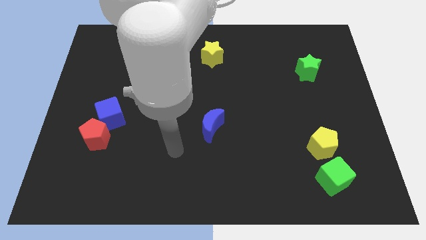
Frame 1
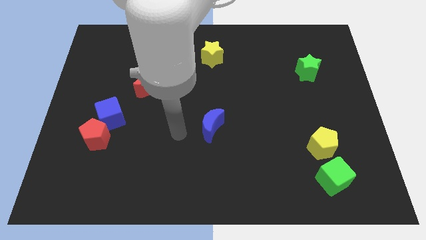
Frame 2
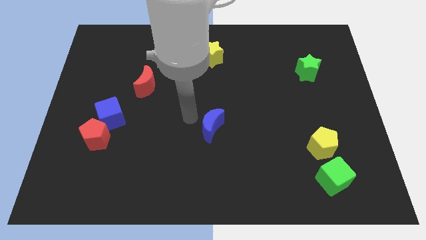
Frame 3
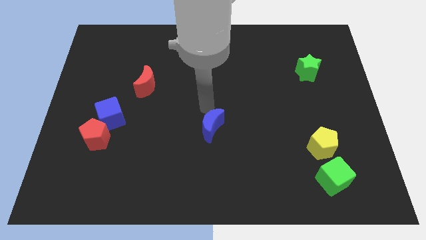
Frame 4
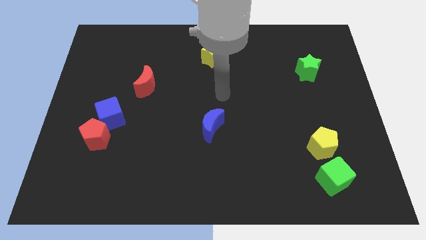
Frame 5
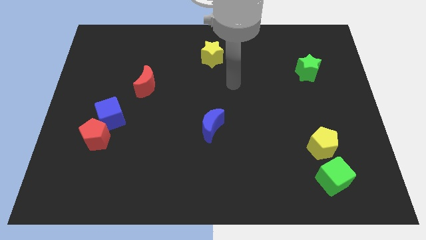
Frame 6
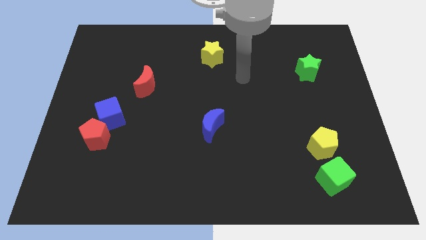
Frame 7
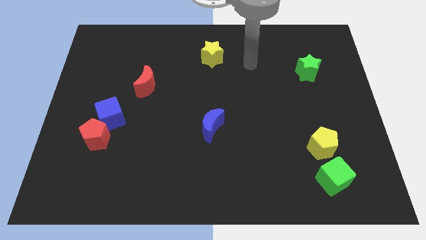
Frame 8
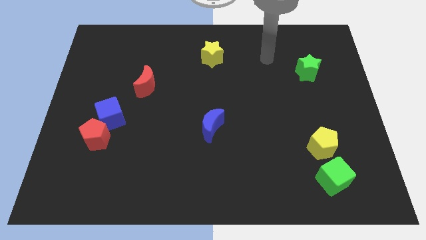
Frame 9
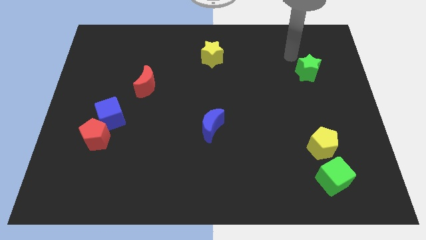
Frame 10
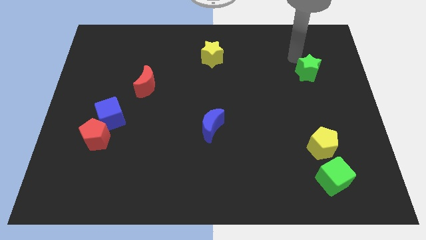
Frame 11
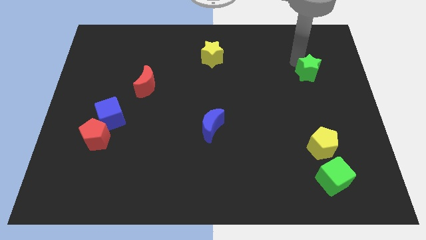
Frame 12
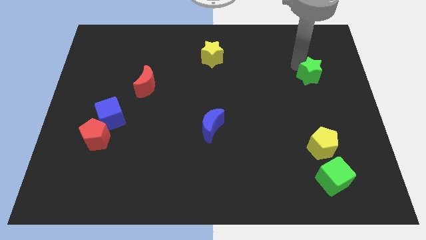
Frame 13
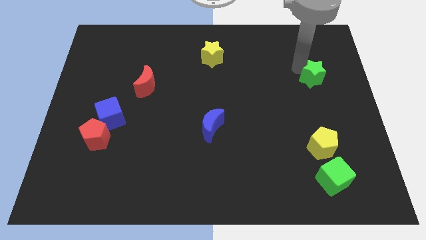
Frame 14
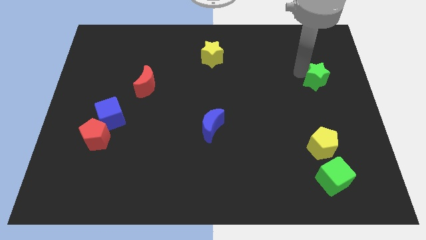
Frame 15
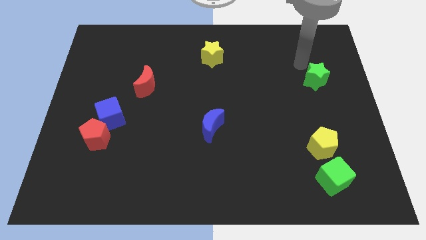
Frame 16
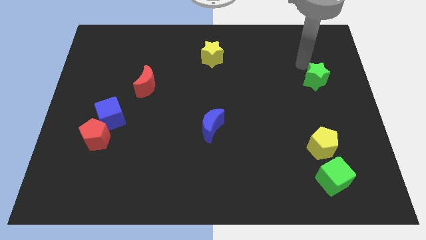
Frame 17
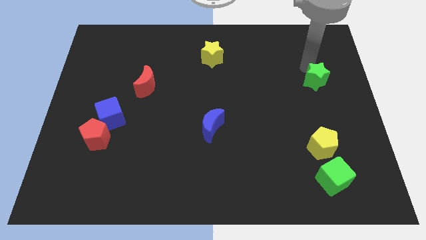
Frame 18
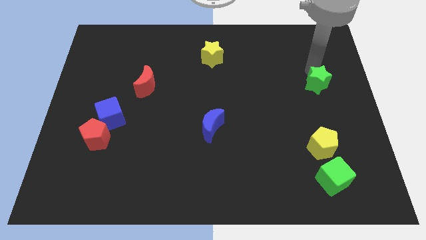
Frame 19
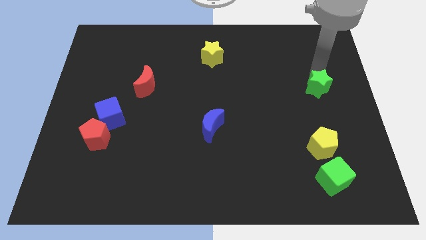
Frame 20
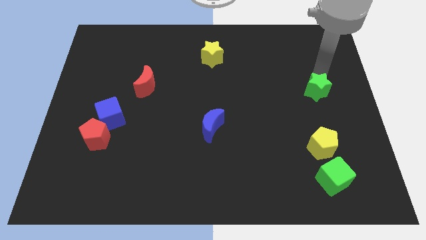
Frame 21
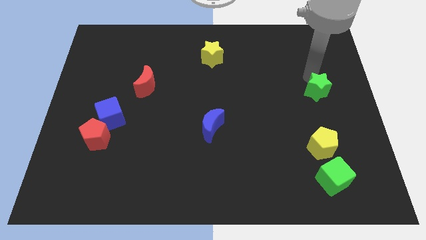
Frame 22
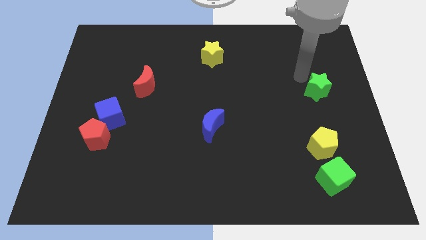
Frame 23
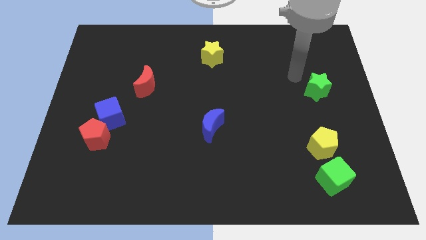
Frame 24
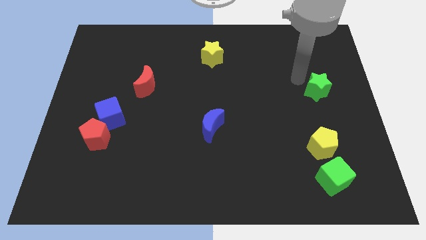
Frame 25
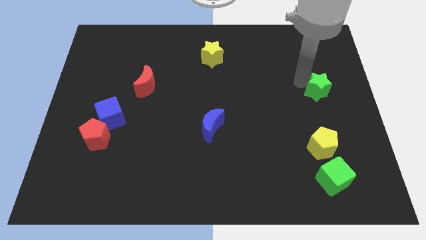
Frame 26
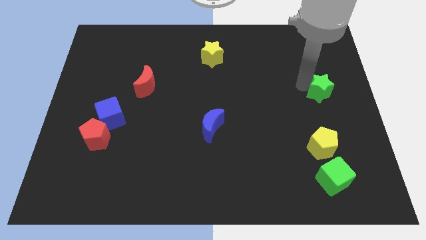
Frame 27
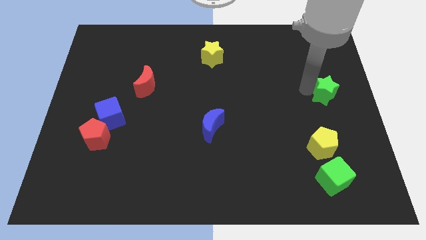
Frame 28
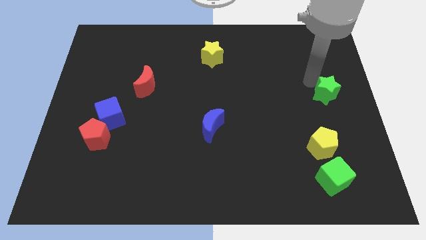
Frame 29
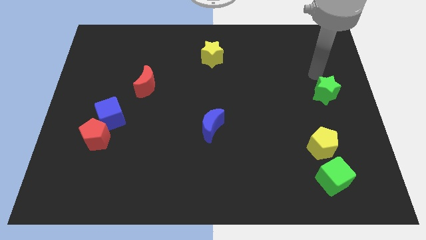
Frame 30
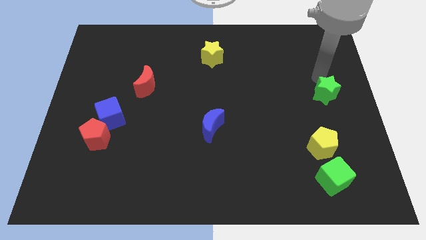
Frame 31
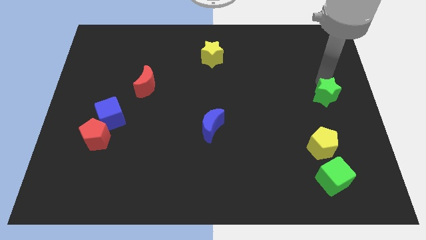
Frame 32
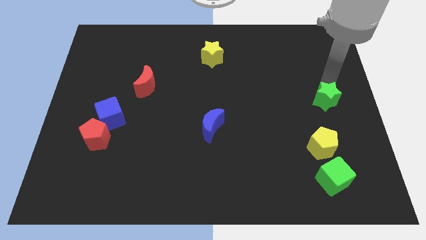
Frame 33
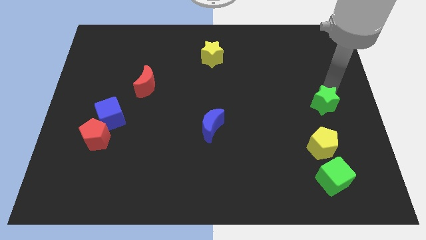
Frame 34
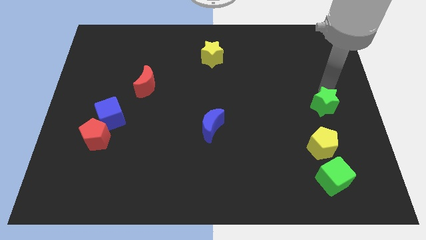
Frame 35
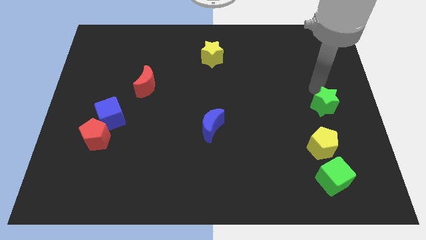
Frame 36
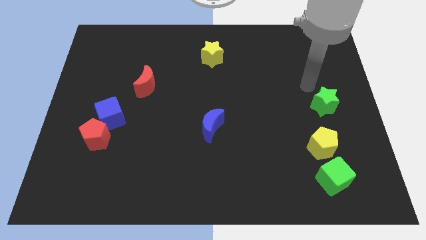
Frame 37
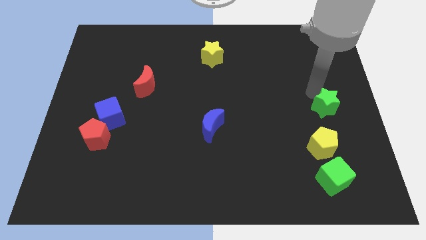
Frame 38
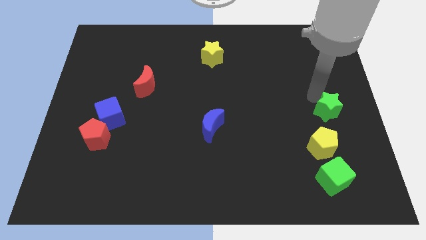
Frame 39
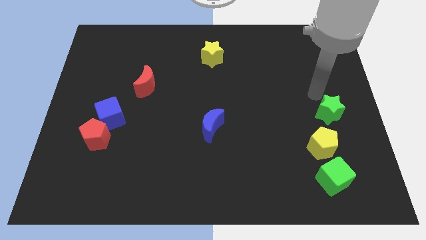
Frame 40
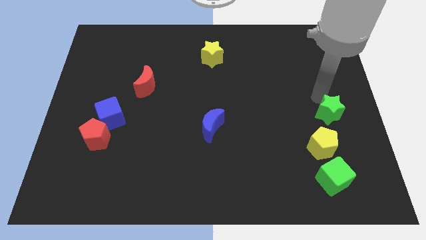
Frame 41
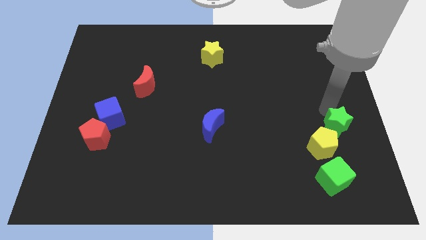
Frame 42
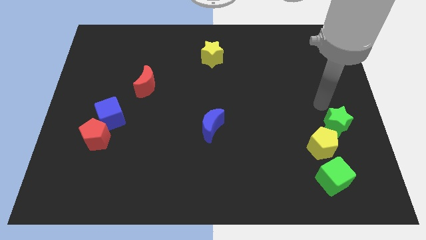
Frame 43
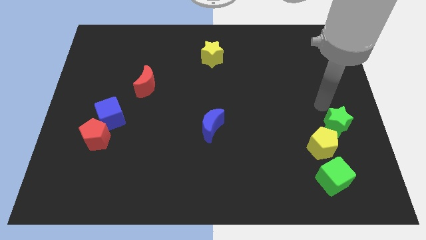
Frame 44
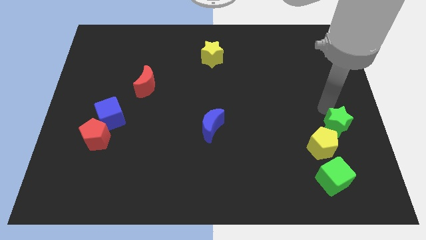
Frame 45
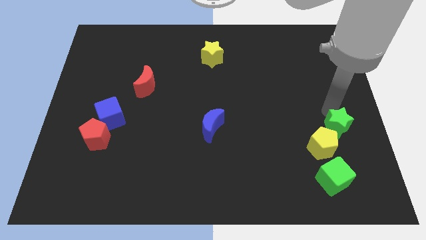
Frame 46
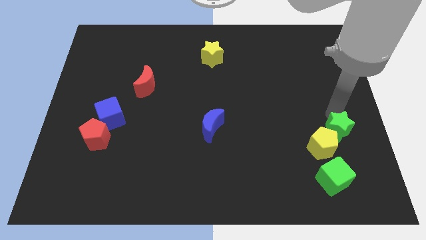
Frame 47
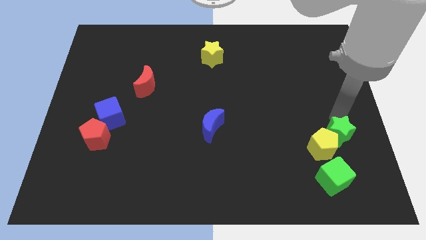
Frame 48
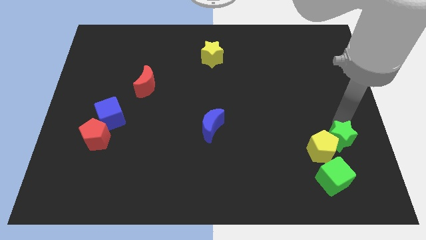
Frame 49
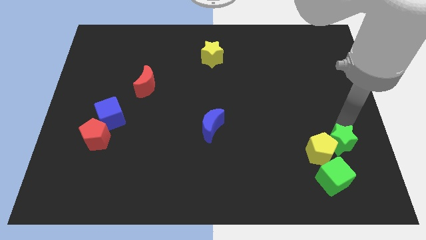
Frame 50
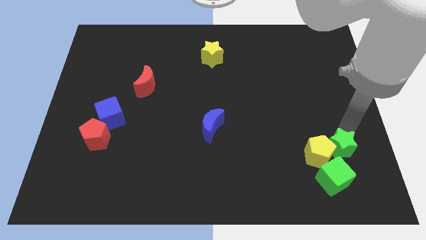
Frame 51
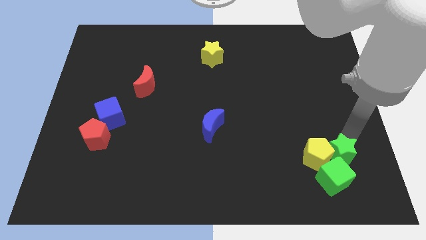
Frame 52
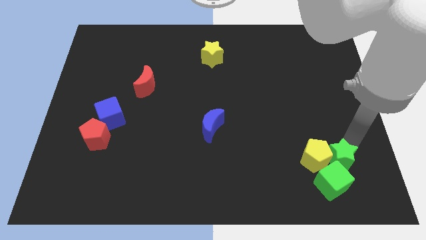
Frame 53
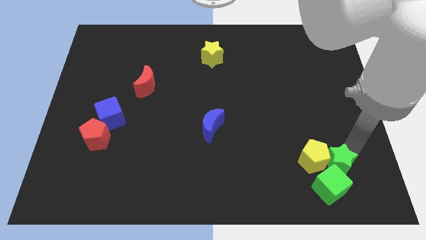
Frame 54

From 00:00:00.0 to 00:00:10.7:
move the green star to the green cube

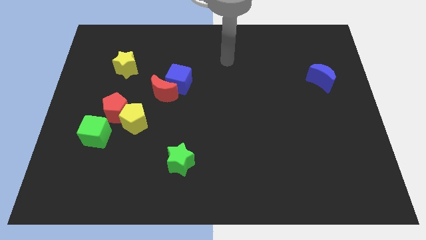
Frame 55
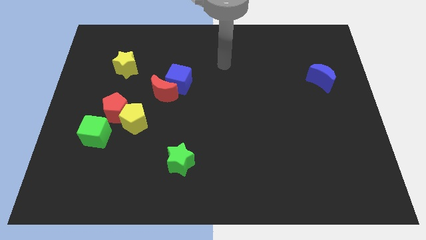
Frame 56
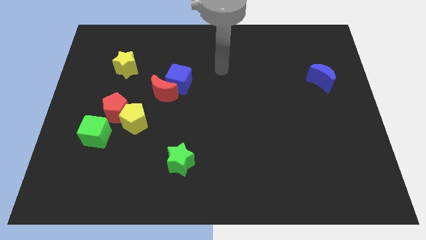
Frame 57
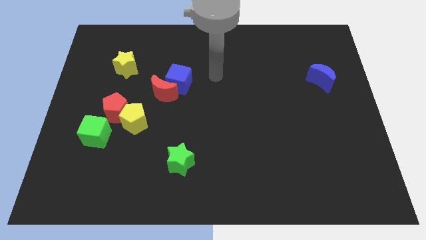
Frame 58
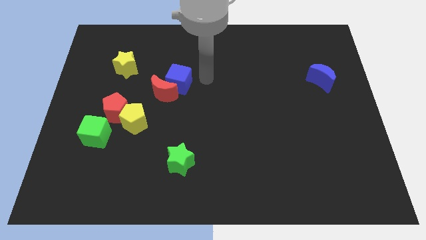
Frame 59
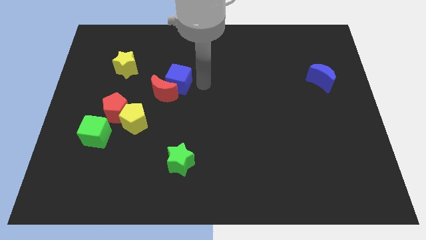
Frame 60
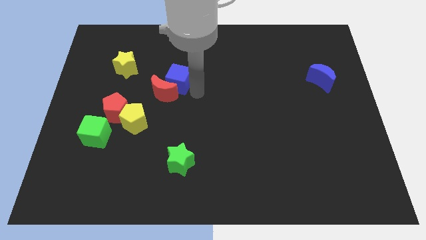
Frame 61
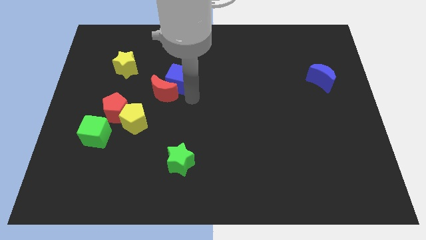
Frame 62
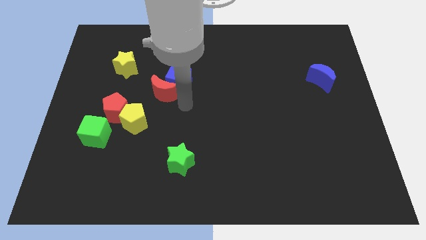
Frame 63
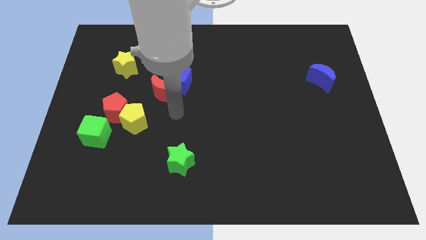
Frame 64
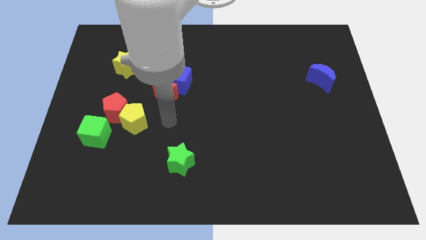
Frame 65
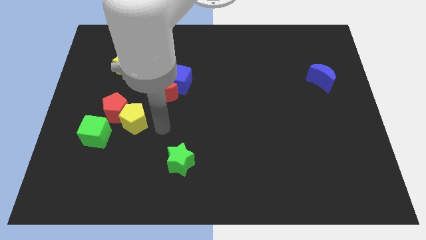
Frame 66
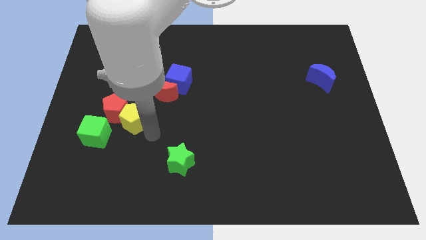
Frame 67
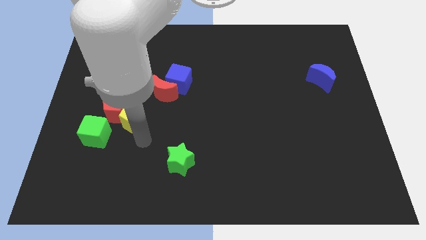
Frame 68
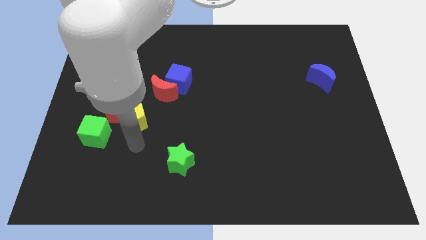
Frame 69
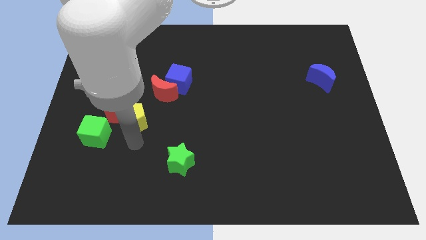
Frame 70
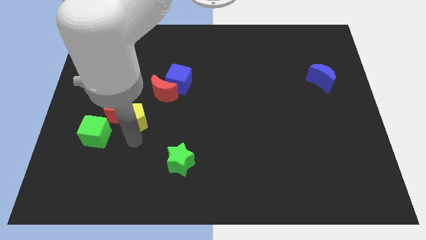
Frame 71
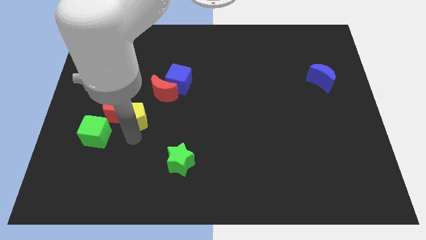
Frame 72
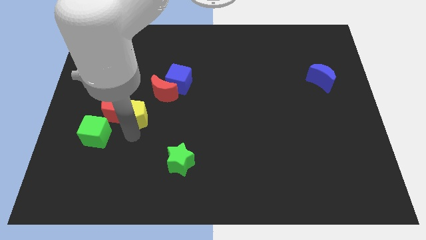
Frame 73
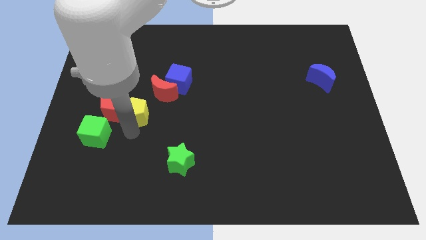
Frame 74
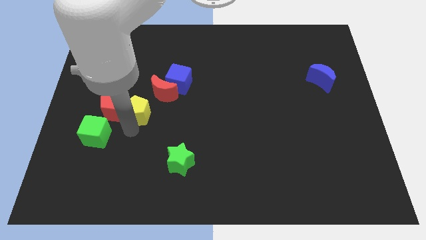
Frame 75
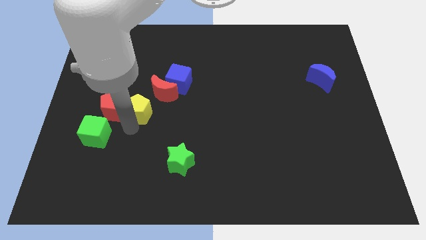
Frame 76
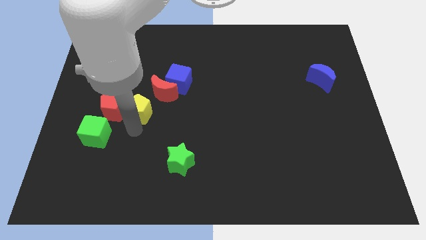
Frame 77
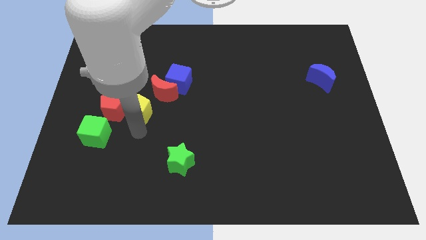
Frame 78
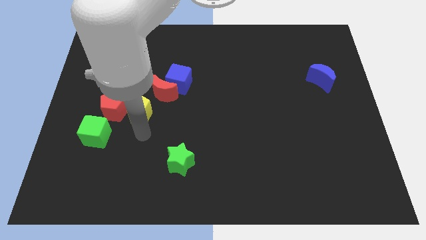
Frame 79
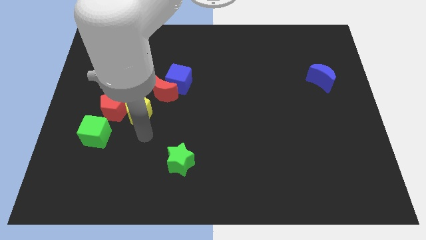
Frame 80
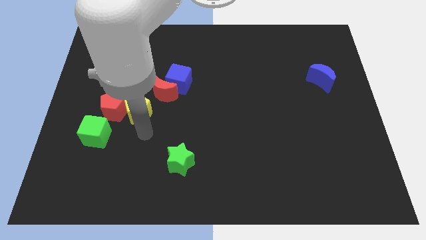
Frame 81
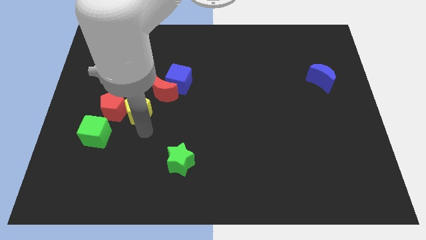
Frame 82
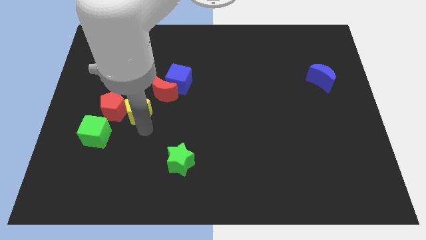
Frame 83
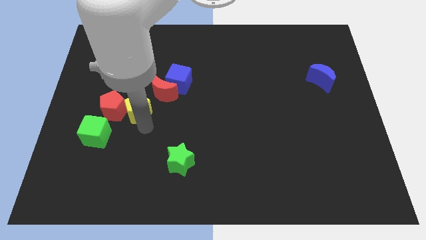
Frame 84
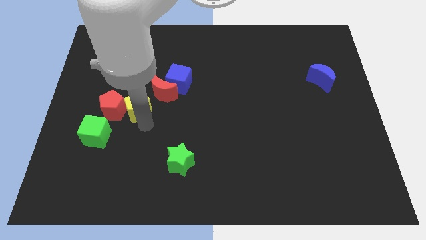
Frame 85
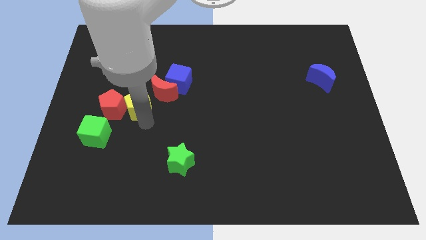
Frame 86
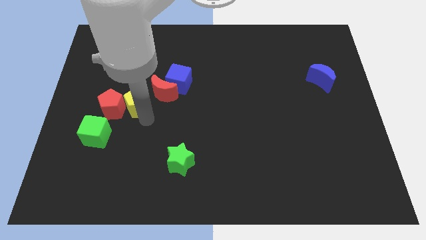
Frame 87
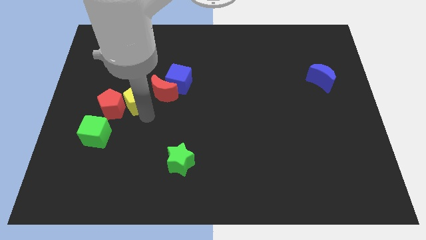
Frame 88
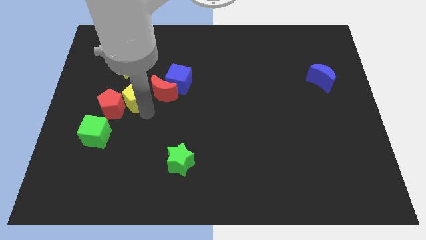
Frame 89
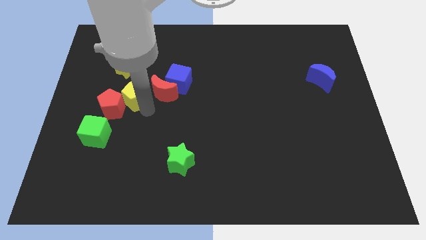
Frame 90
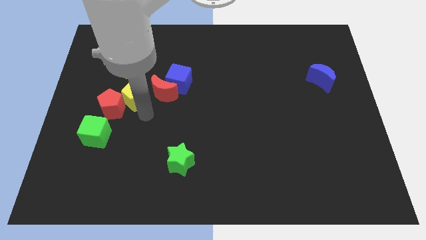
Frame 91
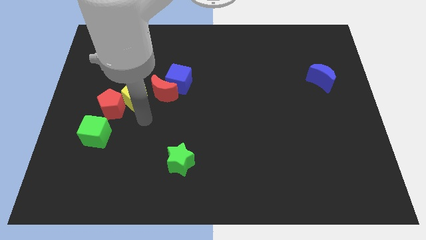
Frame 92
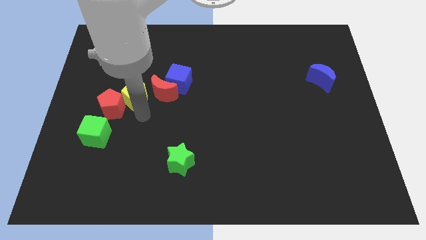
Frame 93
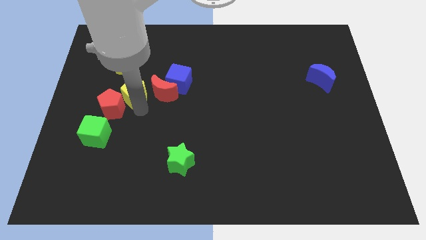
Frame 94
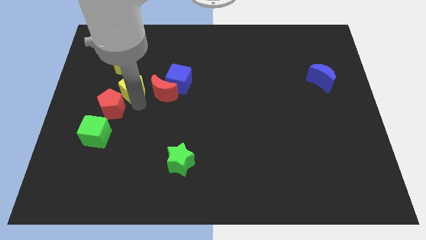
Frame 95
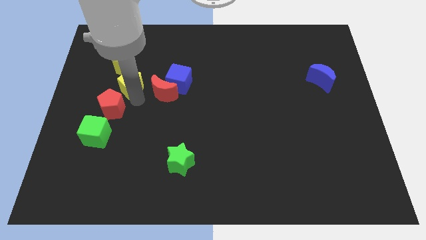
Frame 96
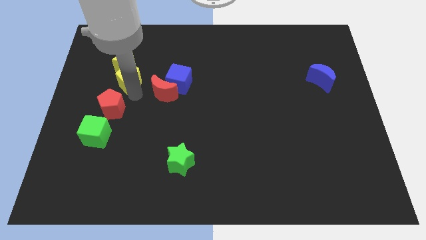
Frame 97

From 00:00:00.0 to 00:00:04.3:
put the yellow pentagon next to the yellow star
